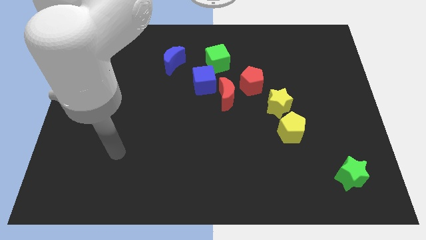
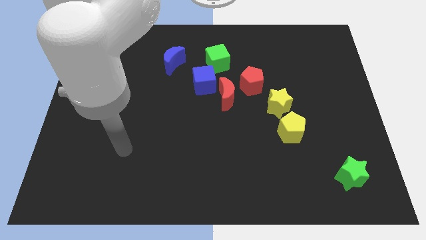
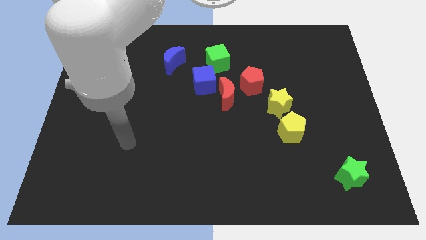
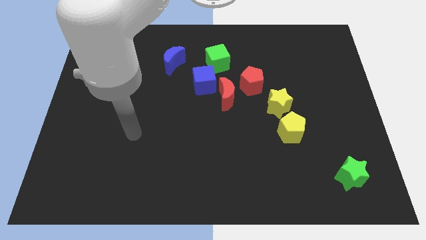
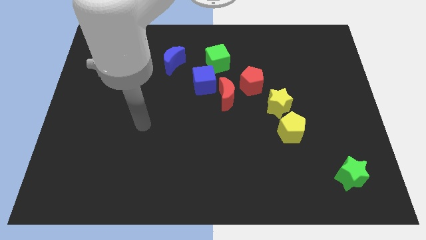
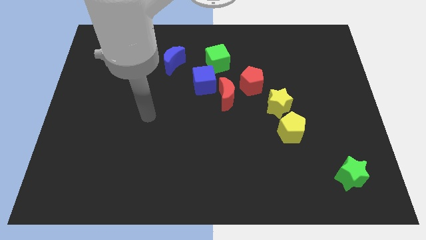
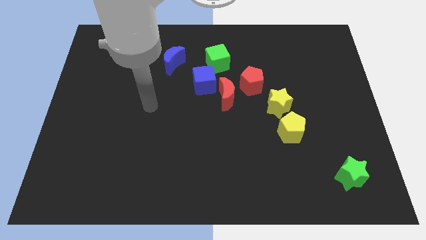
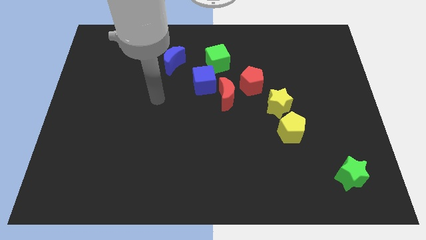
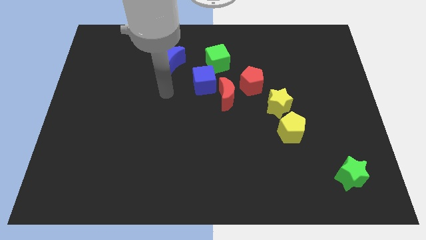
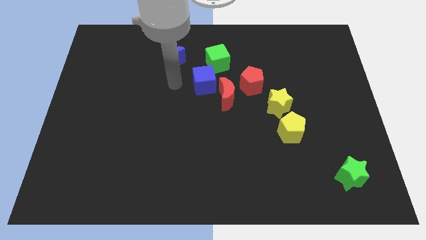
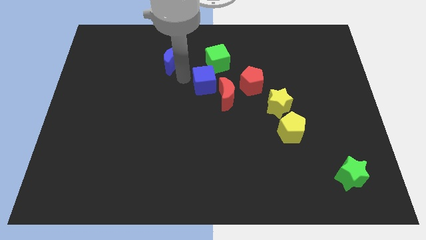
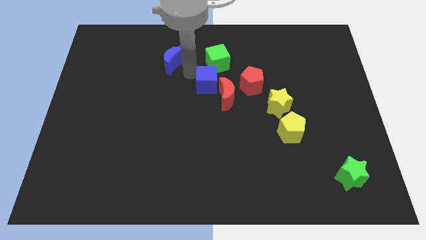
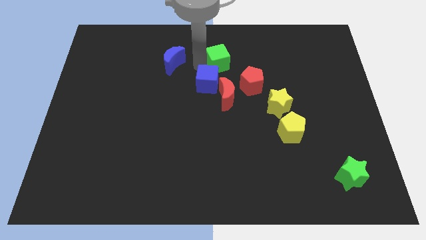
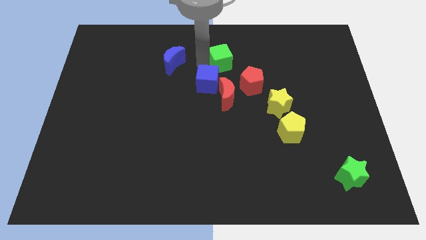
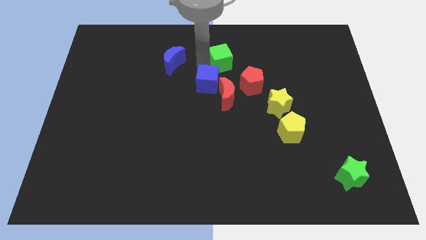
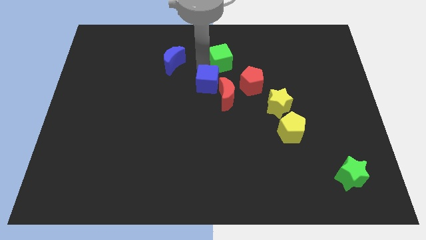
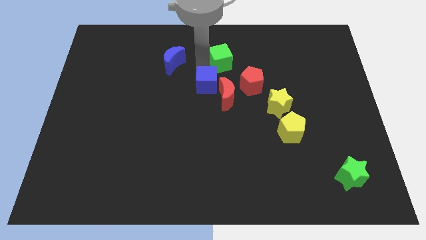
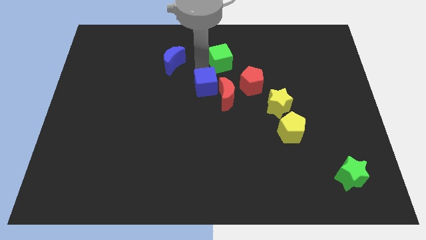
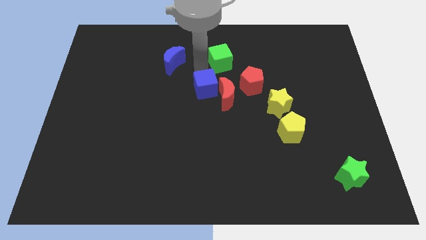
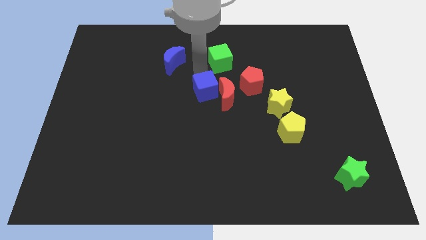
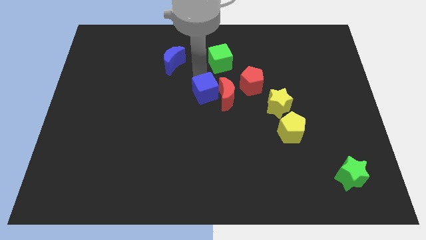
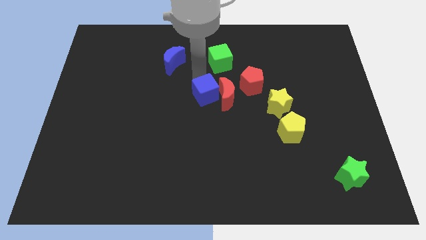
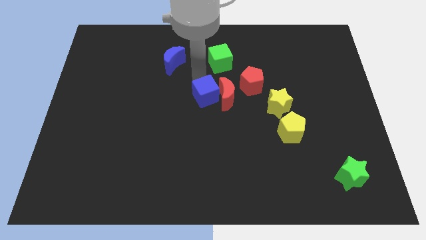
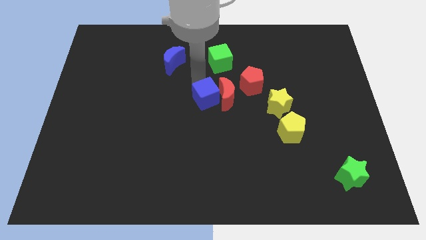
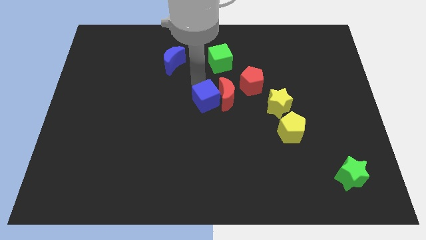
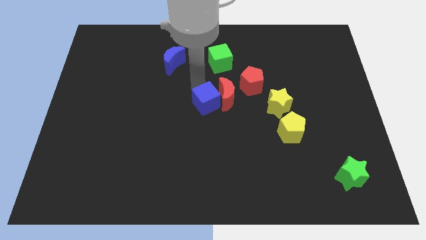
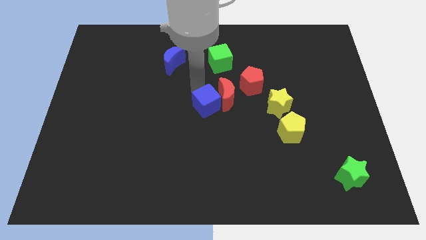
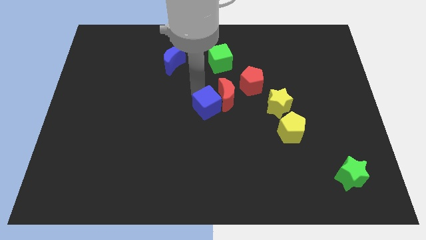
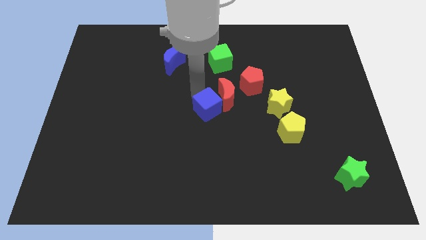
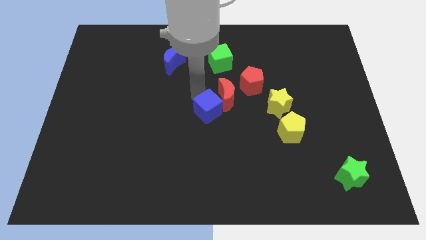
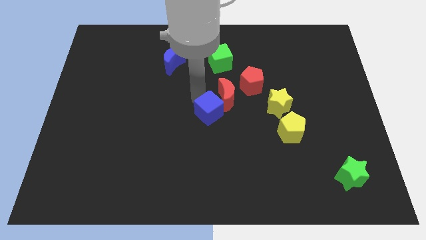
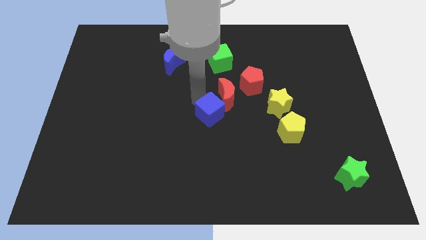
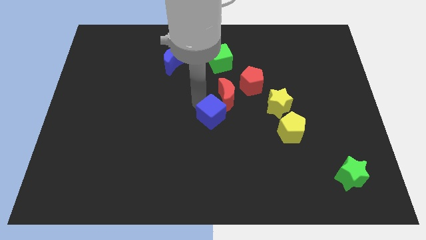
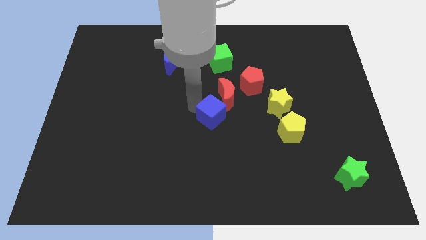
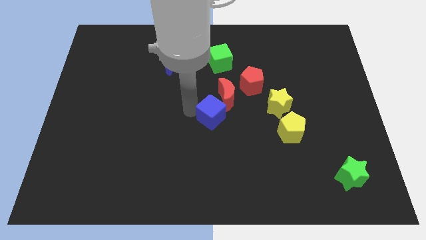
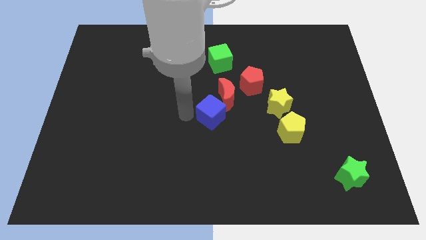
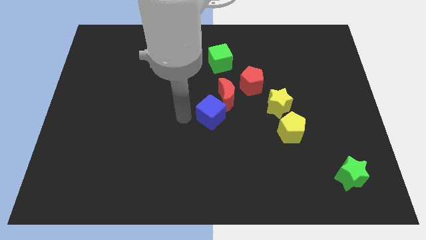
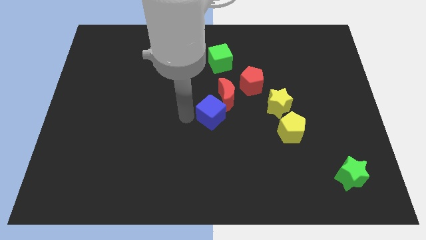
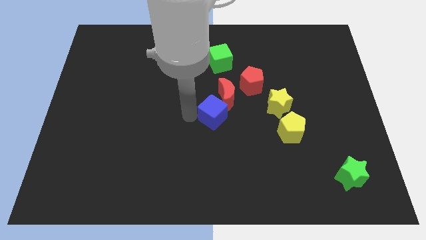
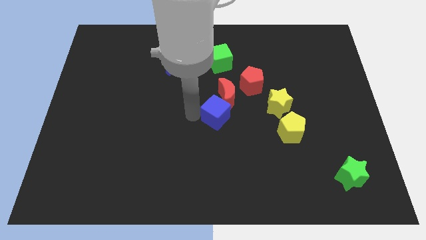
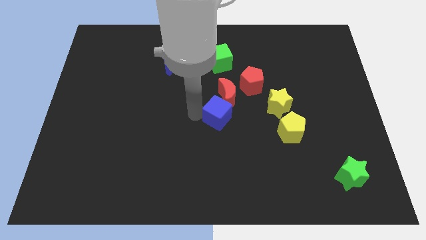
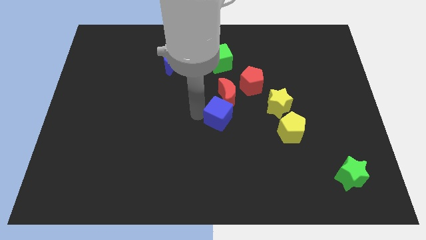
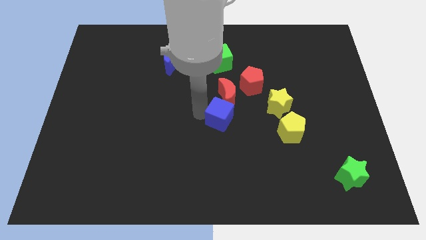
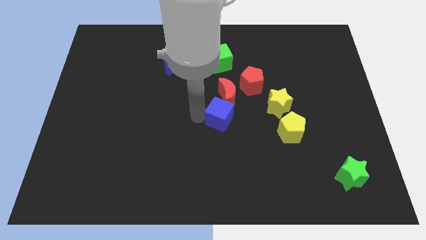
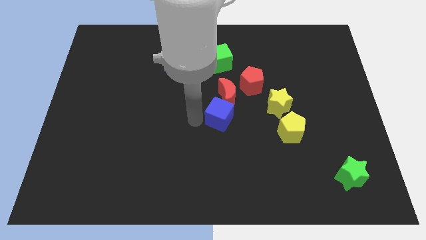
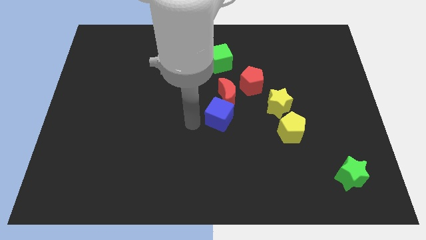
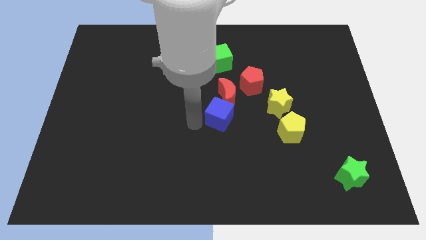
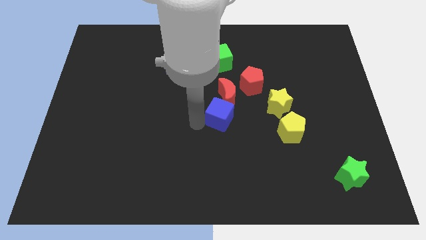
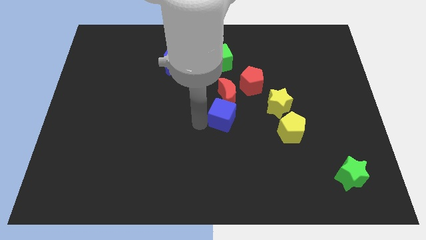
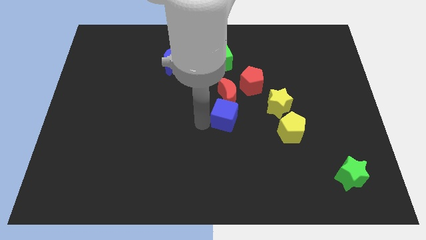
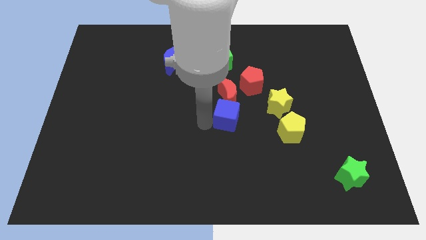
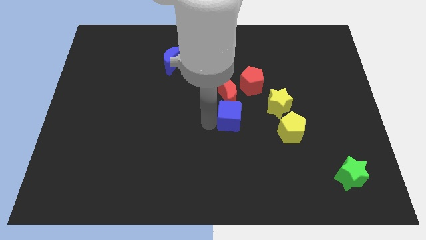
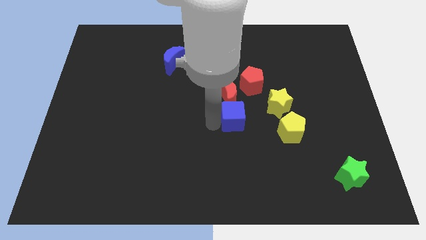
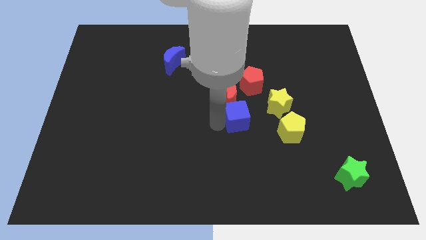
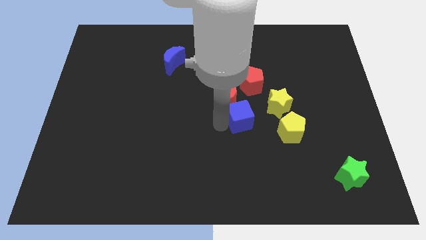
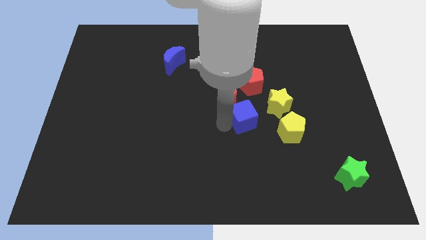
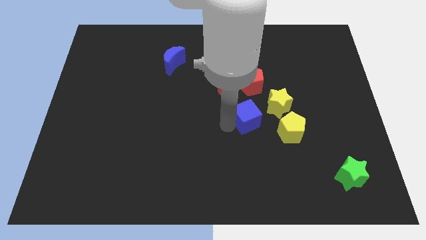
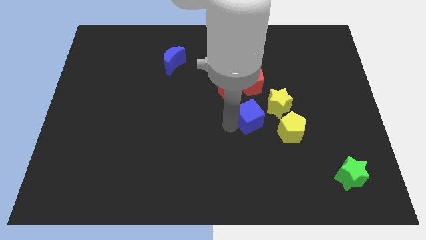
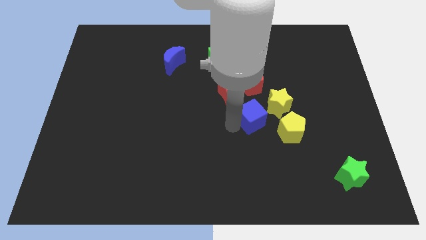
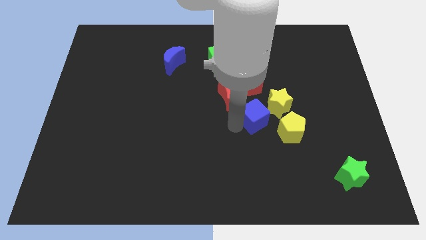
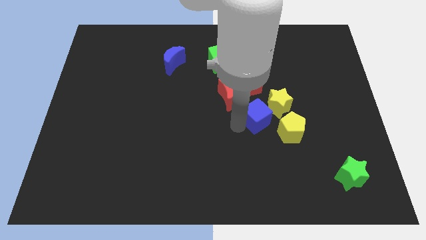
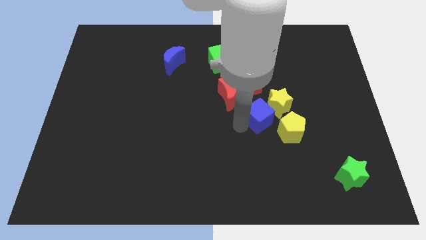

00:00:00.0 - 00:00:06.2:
slide the blue cube towards the yellow star
